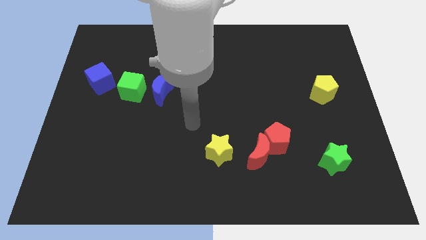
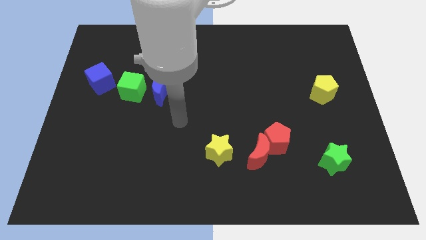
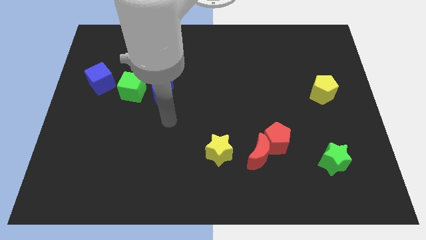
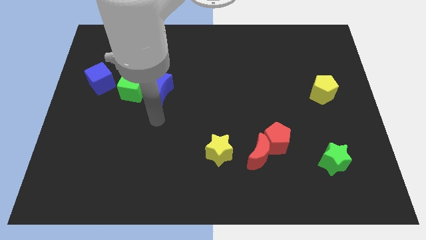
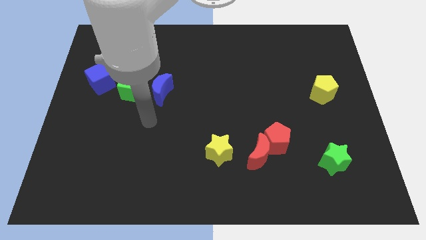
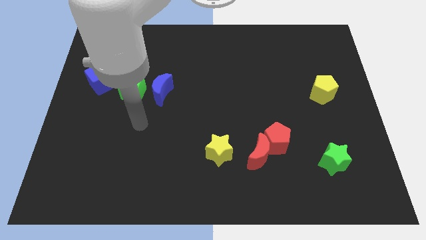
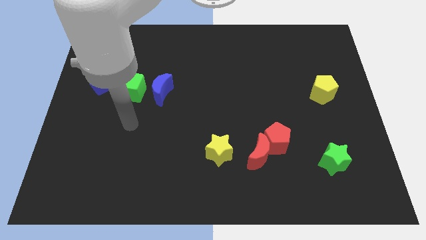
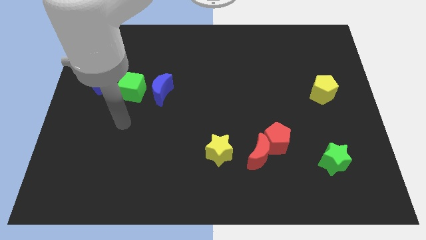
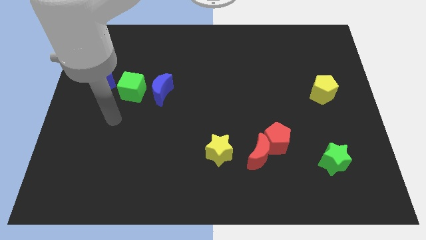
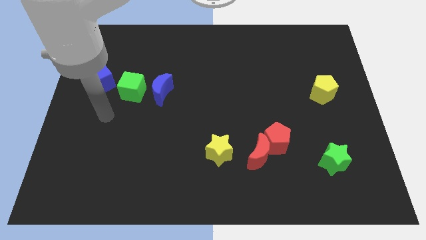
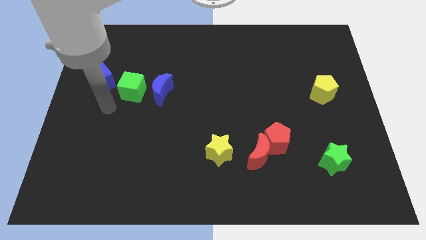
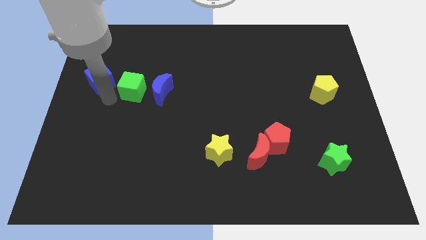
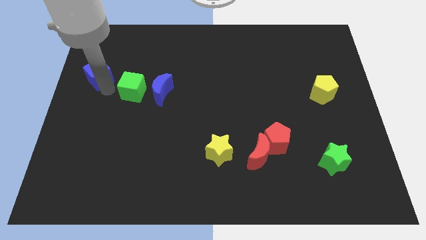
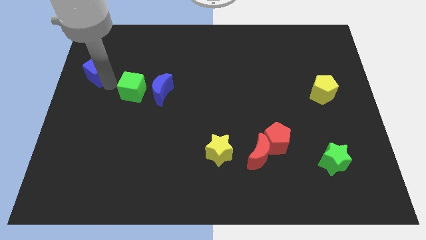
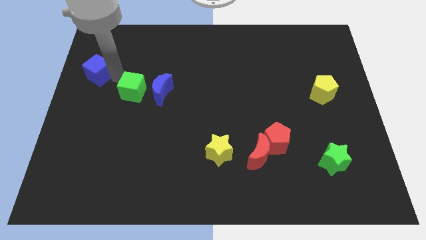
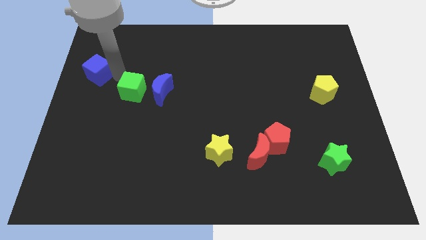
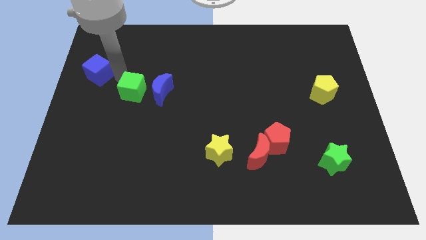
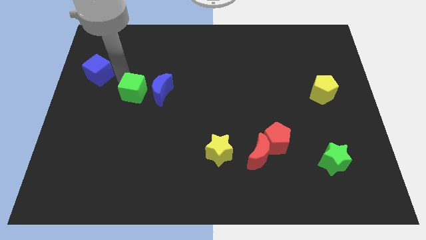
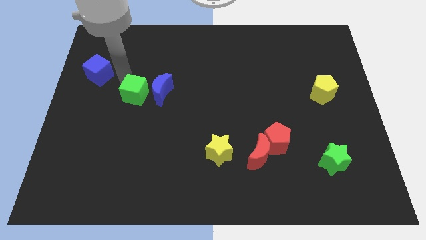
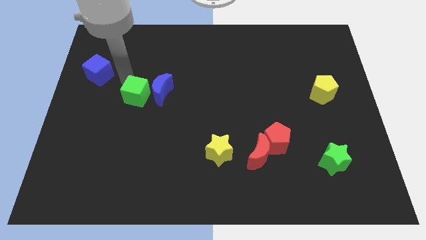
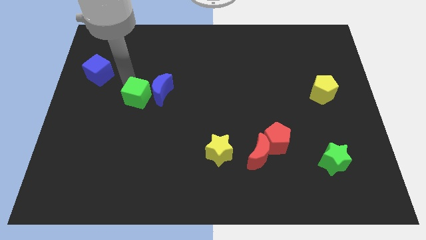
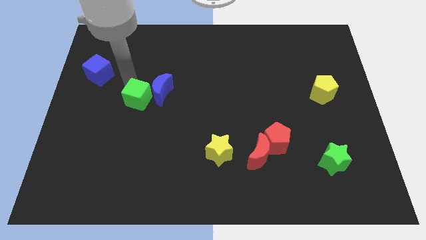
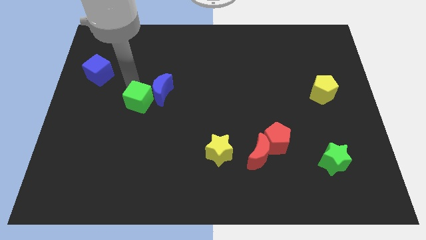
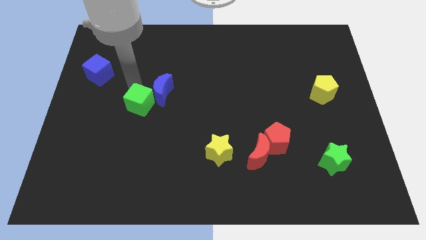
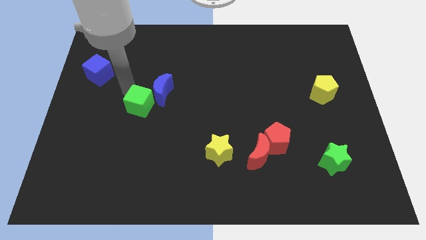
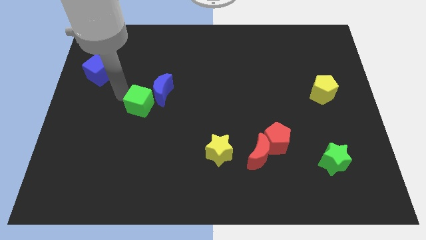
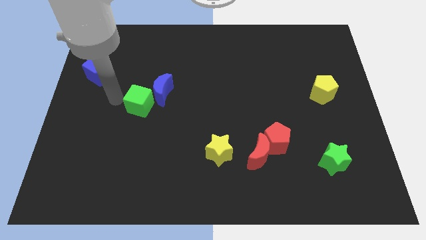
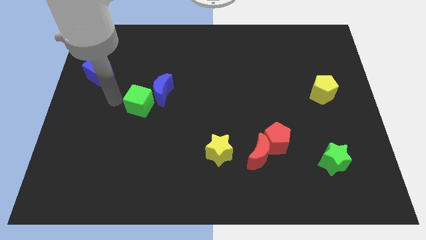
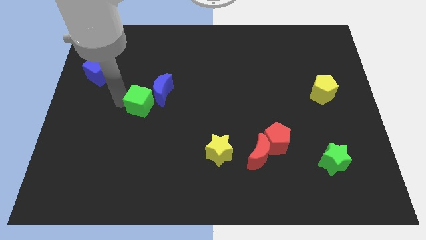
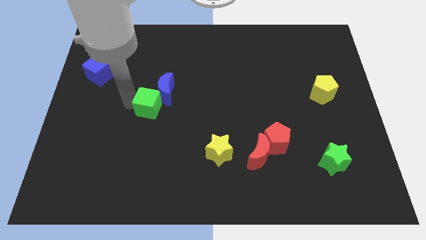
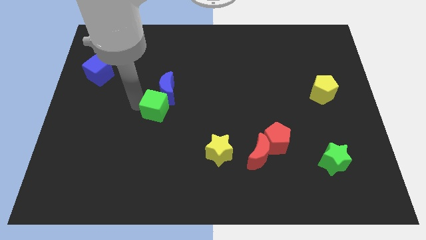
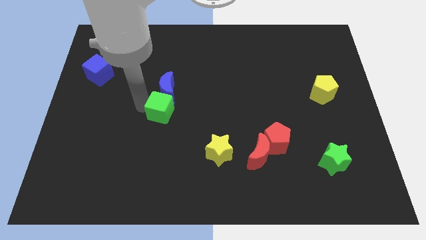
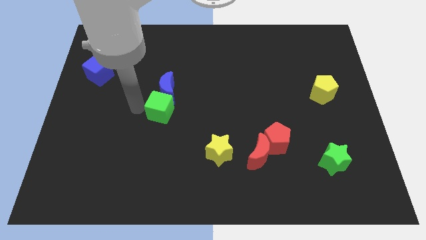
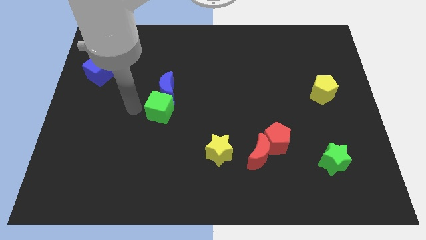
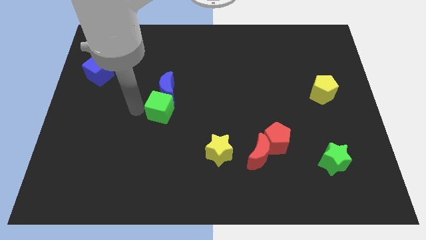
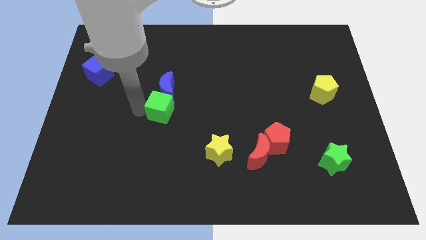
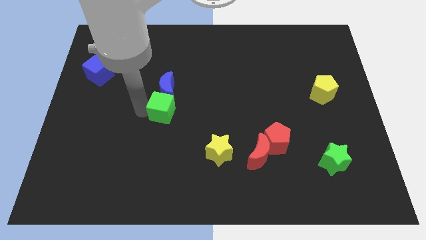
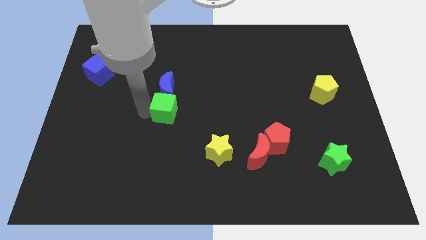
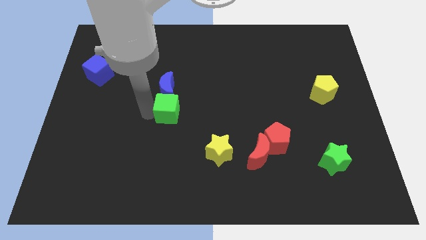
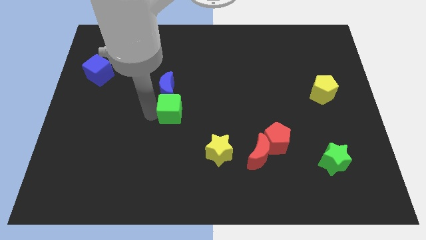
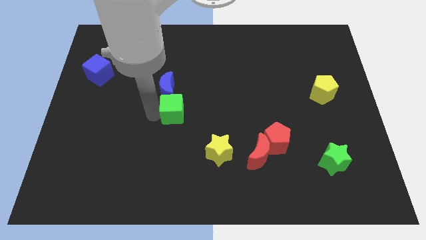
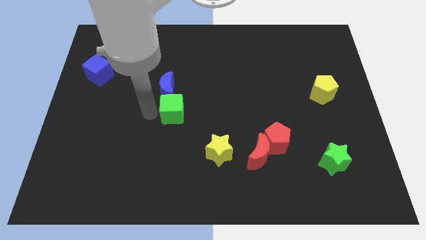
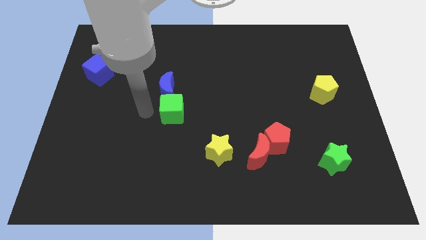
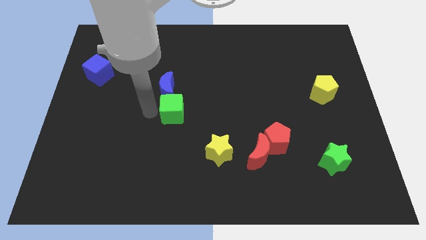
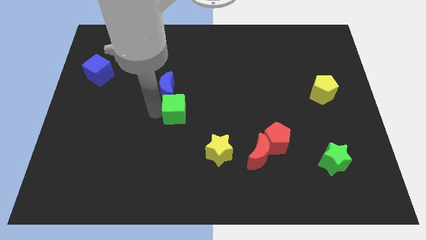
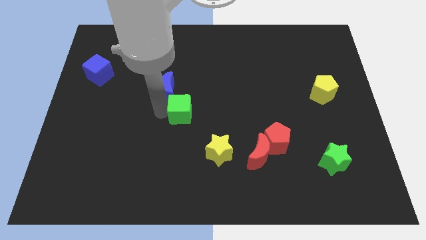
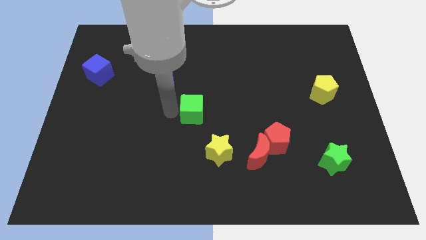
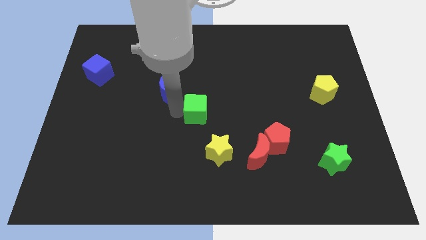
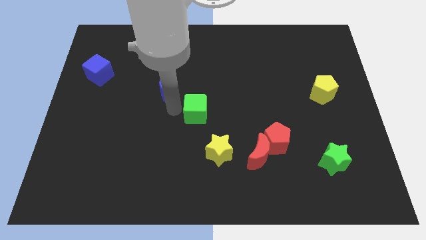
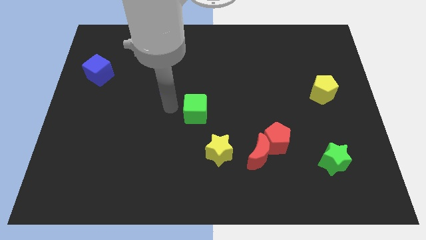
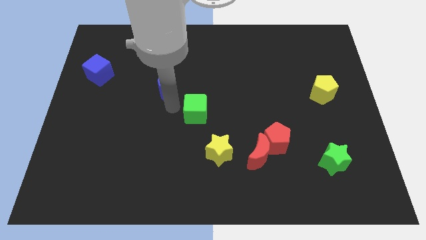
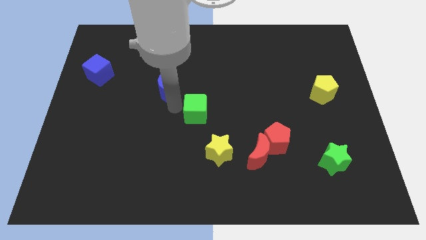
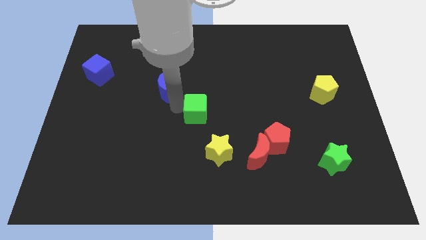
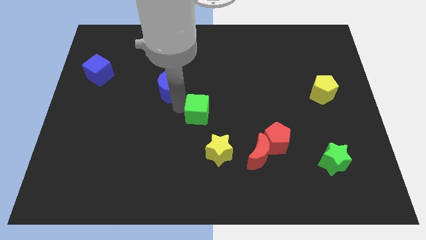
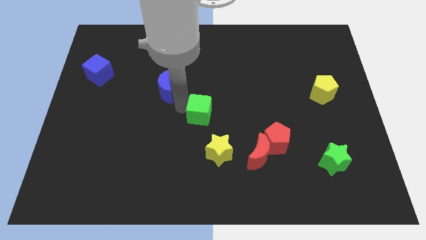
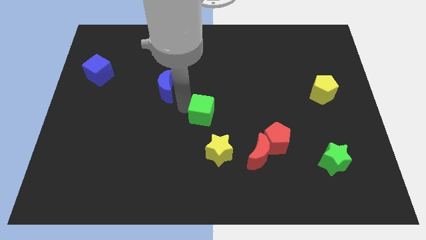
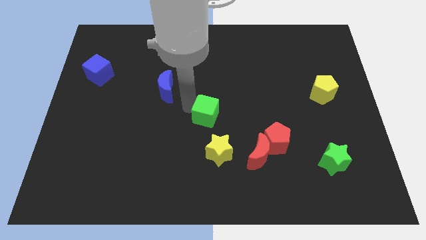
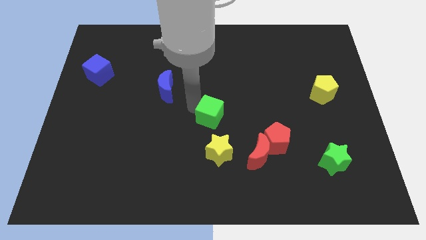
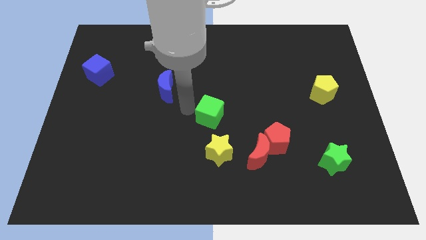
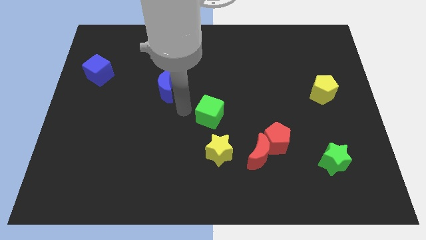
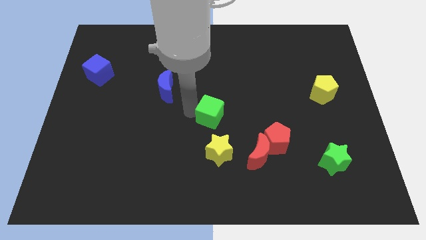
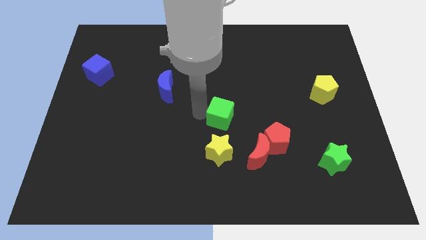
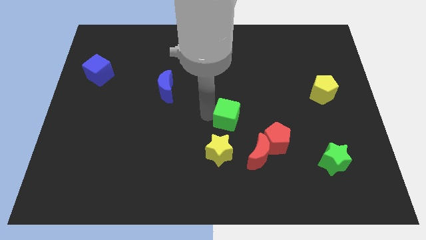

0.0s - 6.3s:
push the green cube to the top left side of the red pentagon

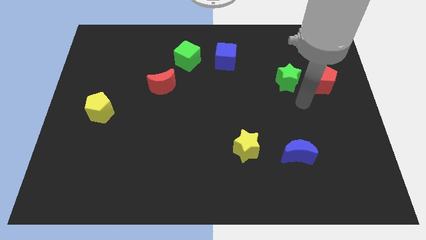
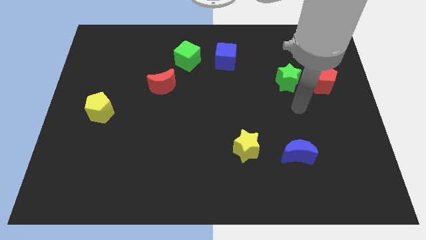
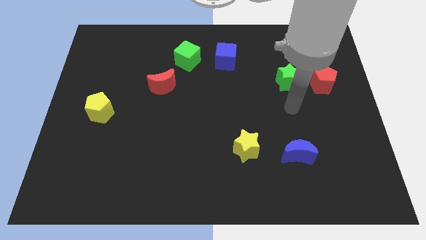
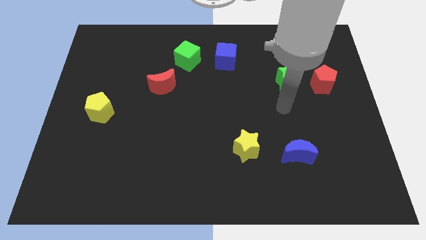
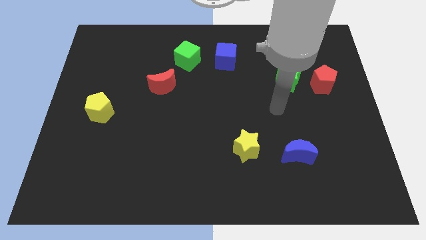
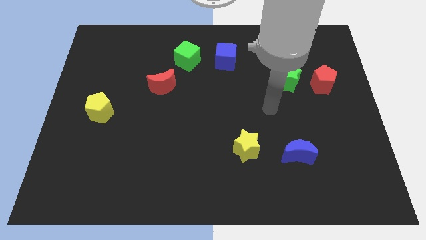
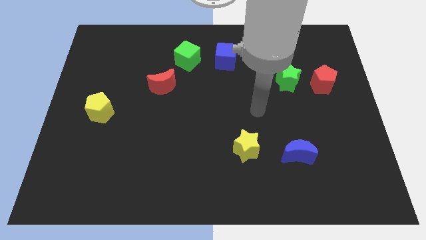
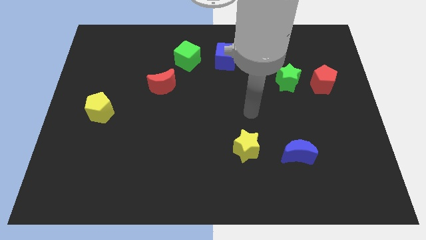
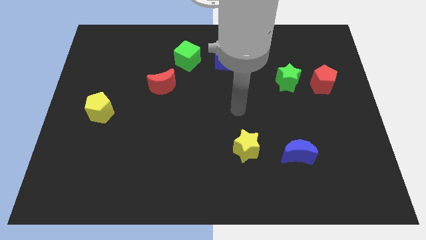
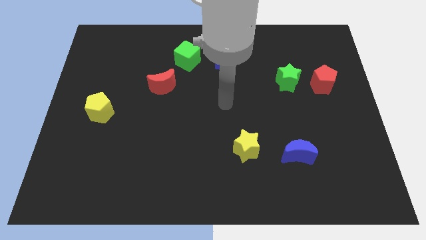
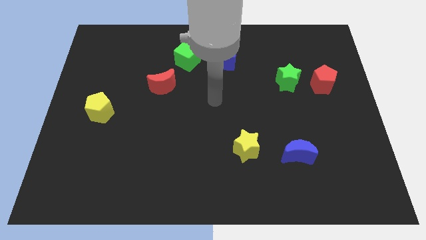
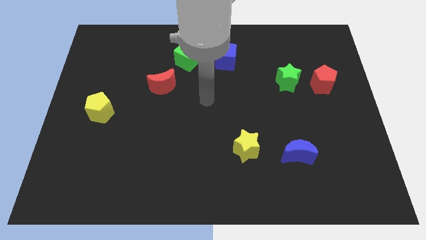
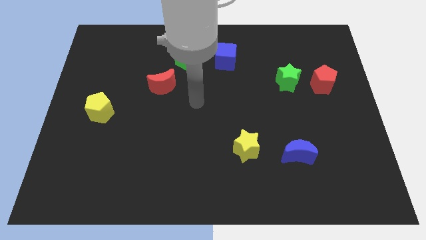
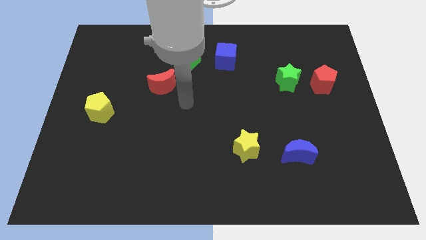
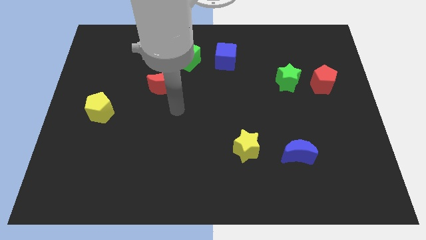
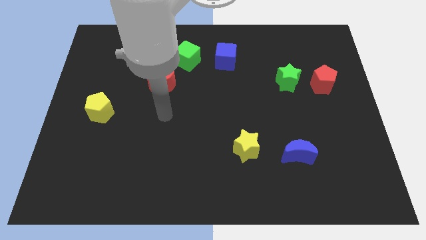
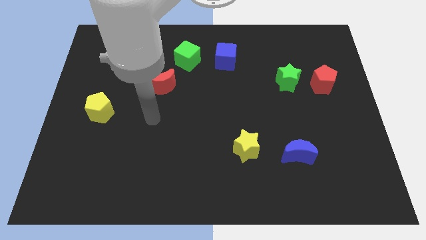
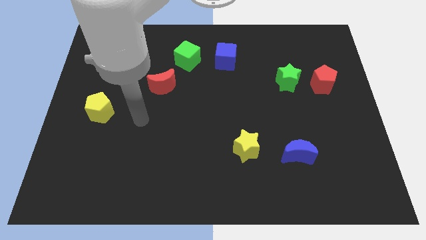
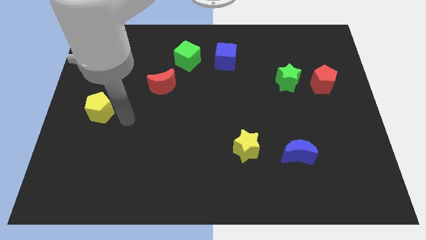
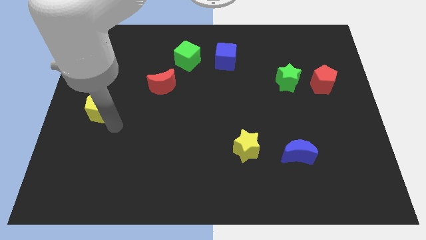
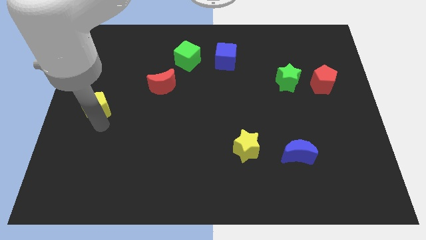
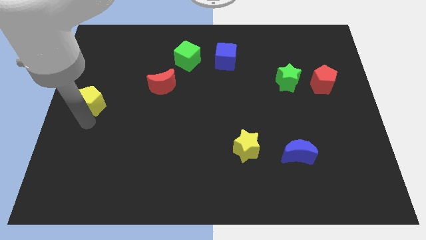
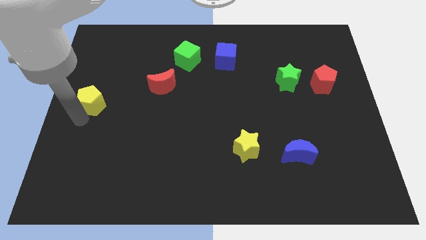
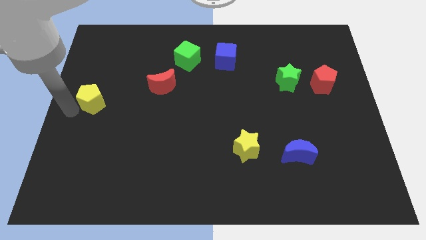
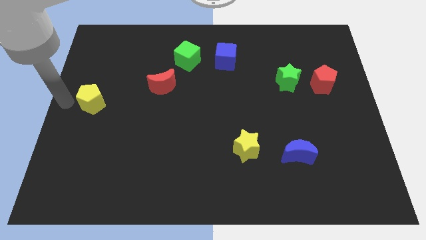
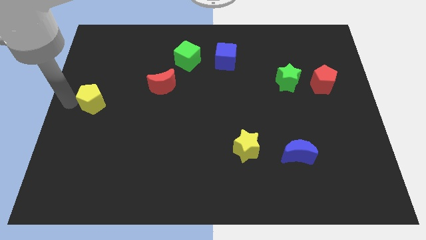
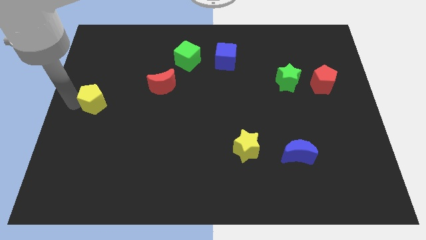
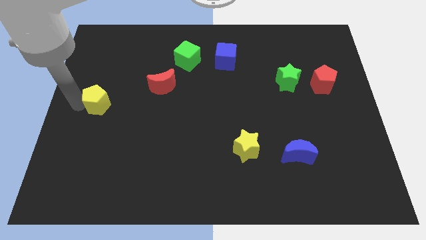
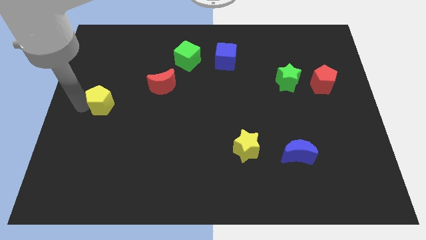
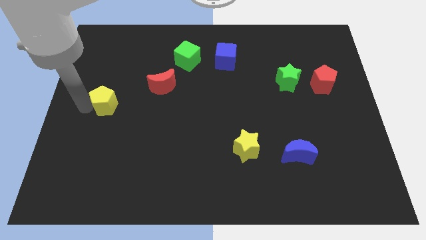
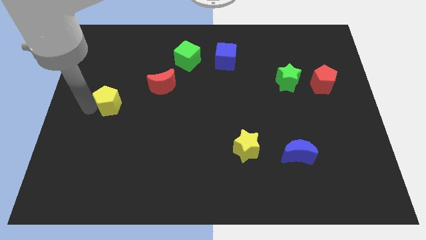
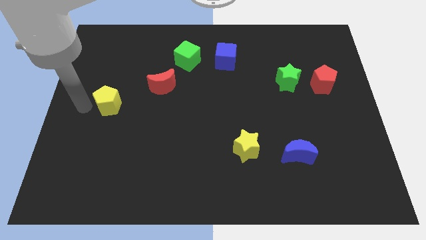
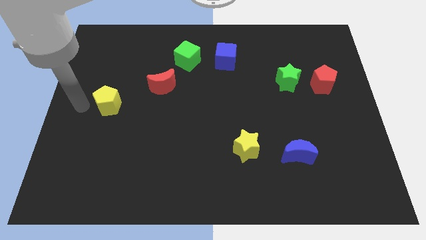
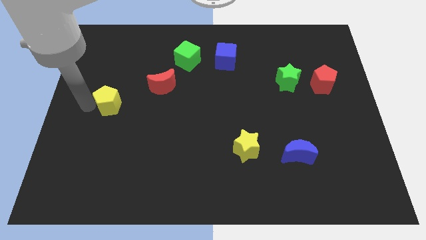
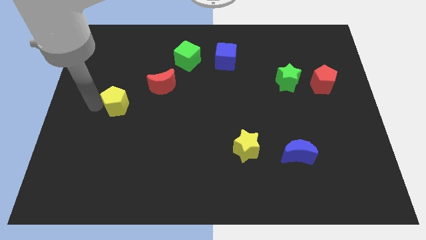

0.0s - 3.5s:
put the yellow pentagon diagonally down and to the left of the red moon
